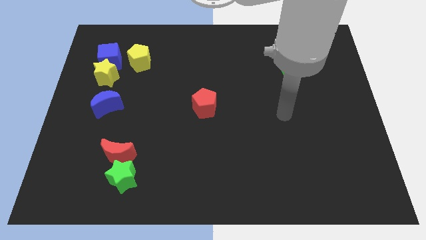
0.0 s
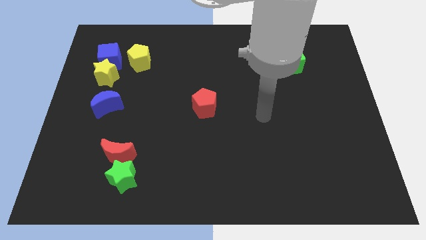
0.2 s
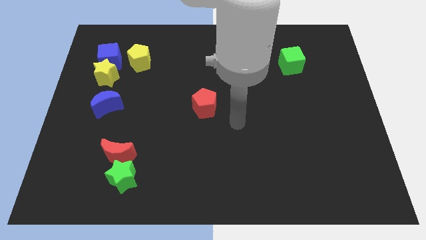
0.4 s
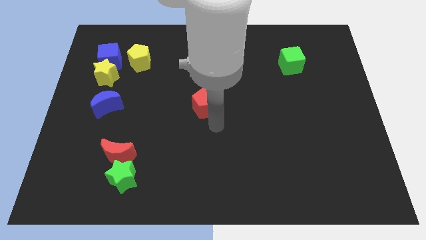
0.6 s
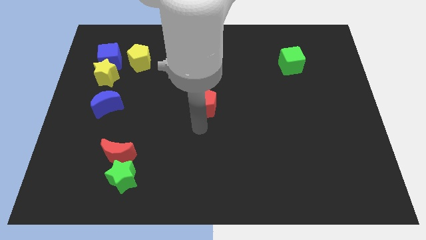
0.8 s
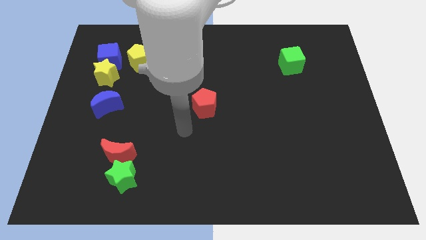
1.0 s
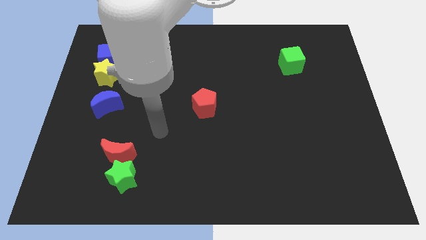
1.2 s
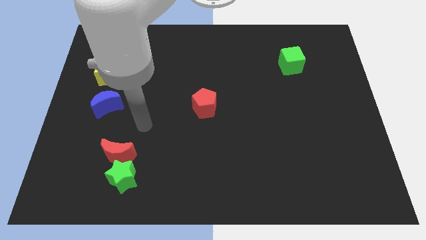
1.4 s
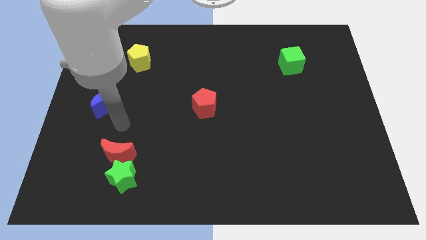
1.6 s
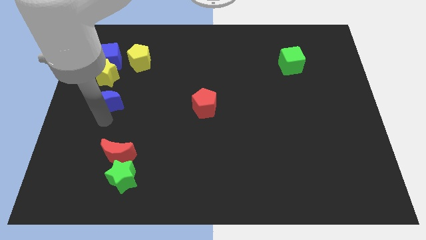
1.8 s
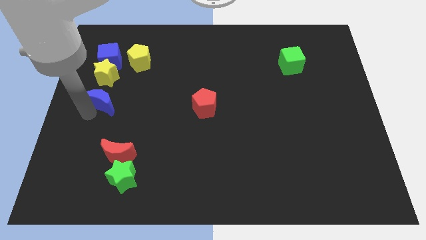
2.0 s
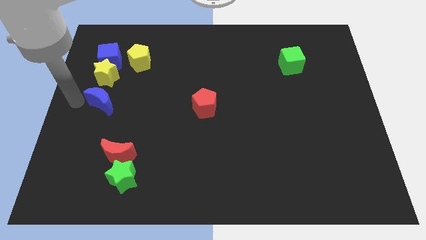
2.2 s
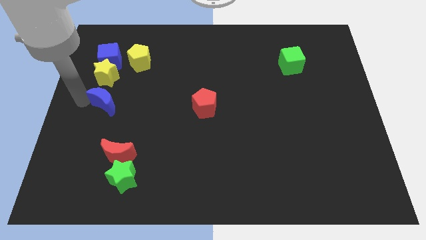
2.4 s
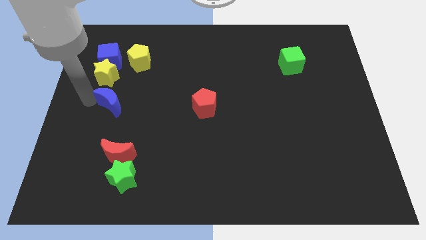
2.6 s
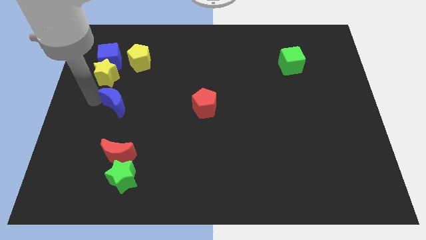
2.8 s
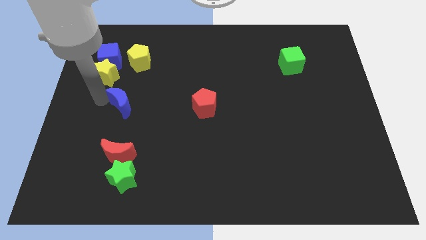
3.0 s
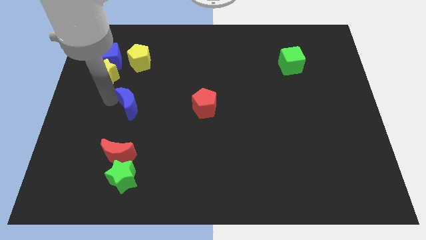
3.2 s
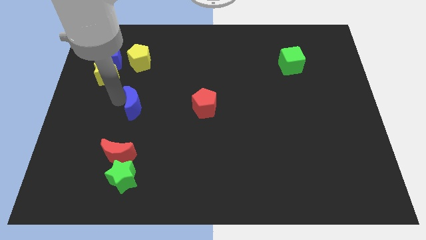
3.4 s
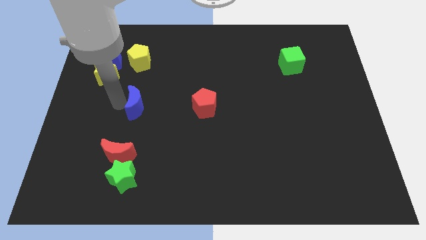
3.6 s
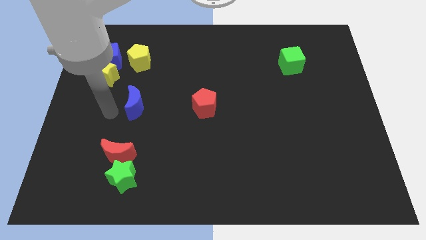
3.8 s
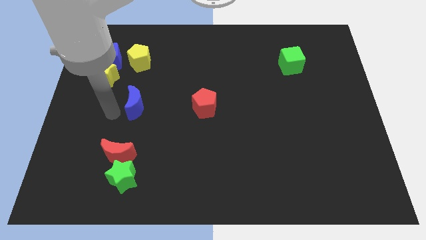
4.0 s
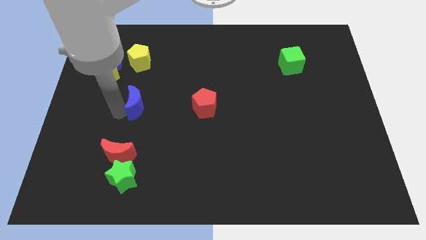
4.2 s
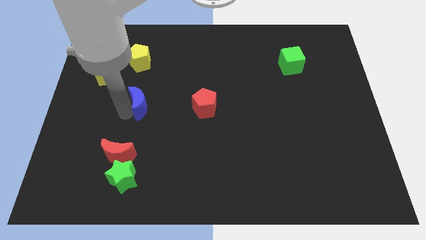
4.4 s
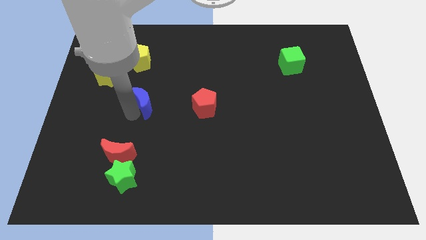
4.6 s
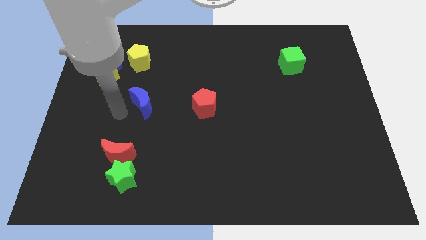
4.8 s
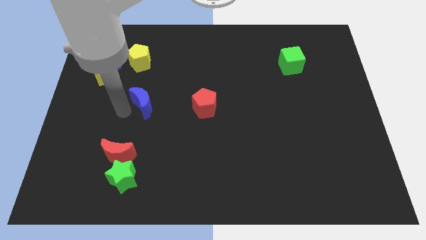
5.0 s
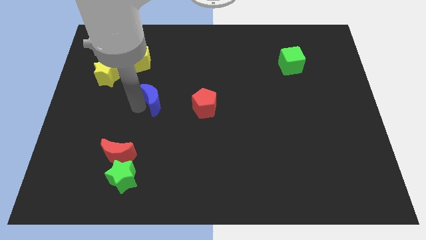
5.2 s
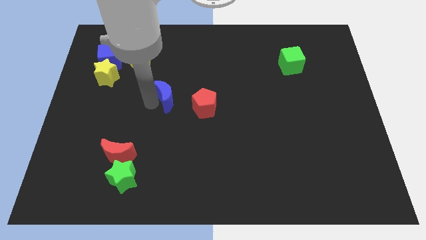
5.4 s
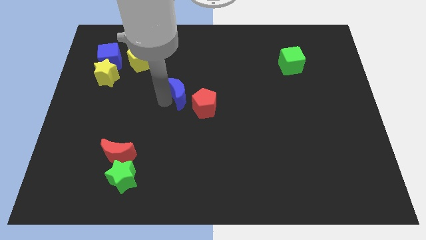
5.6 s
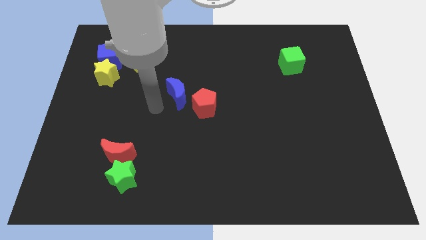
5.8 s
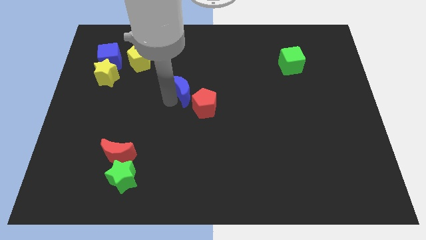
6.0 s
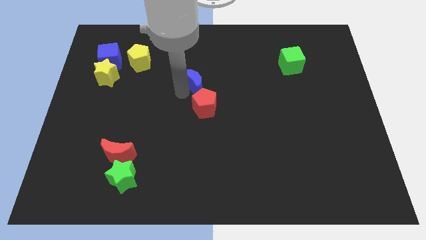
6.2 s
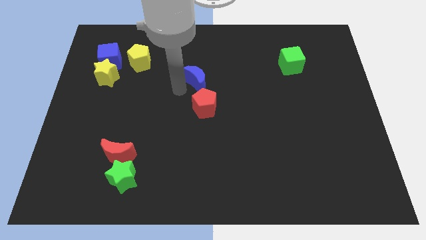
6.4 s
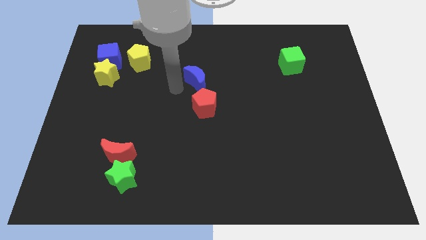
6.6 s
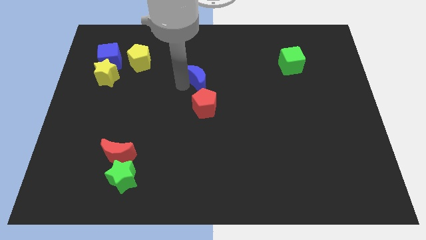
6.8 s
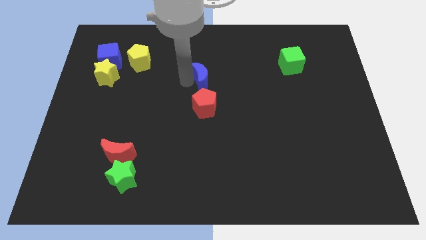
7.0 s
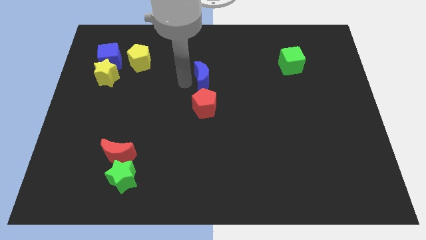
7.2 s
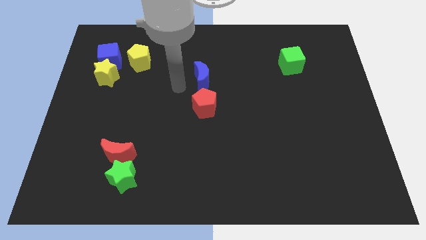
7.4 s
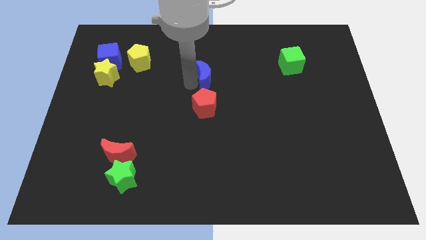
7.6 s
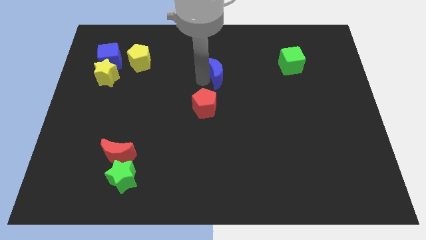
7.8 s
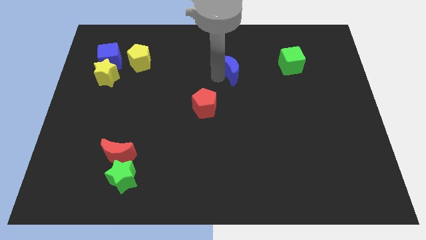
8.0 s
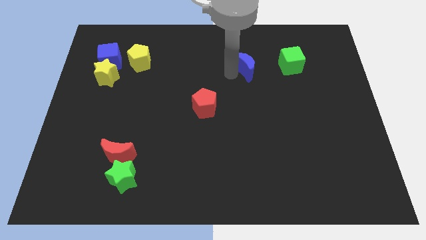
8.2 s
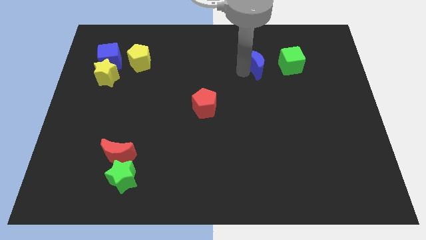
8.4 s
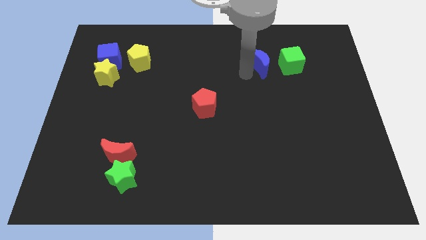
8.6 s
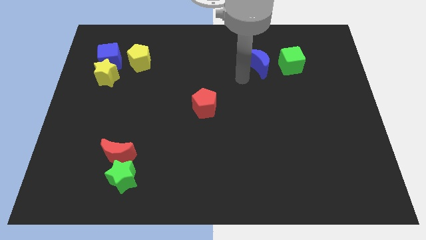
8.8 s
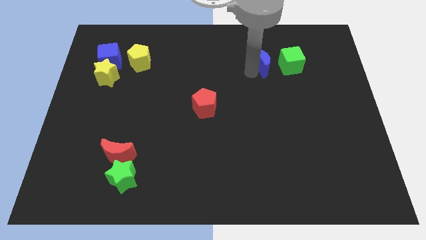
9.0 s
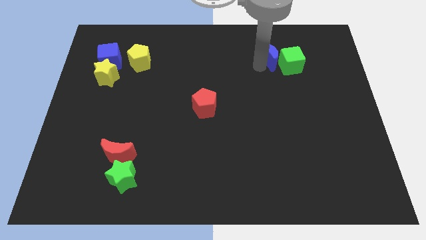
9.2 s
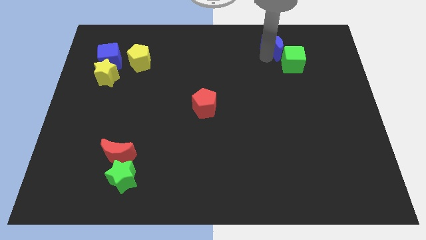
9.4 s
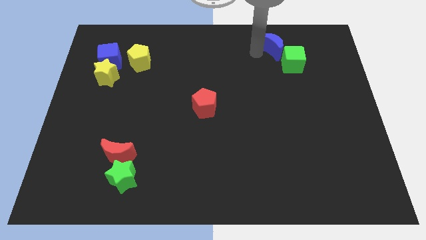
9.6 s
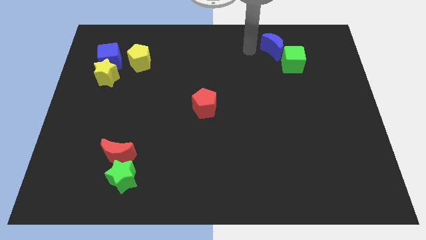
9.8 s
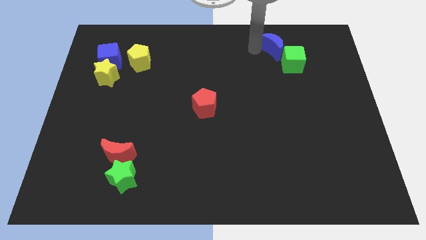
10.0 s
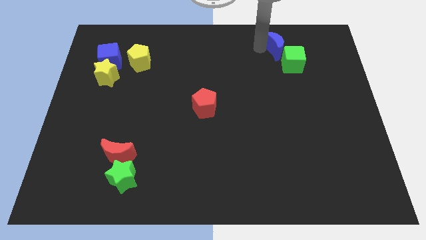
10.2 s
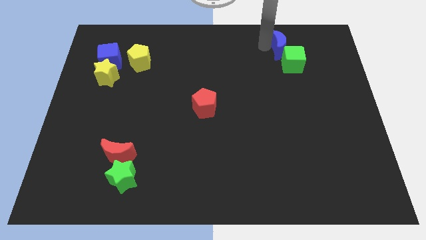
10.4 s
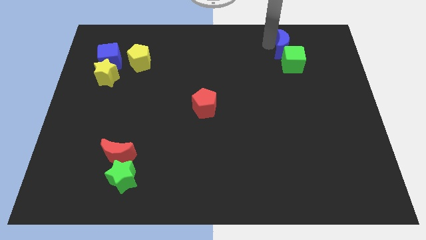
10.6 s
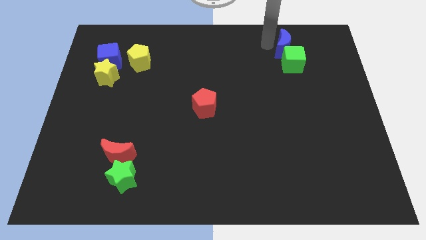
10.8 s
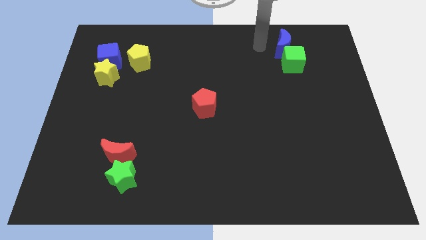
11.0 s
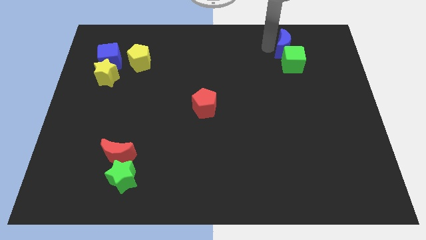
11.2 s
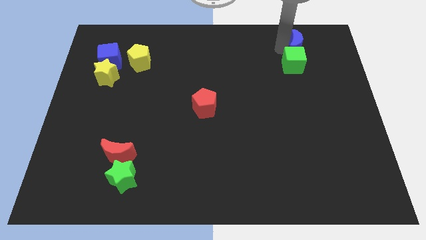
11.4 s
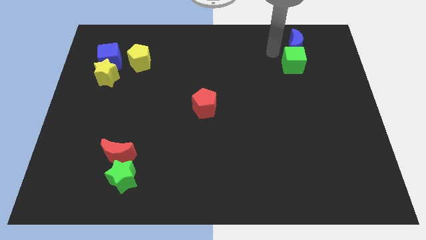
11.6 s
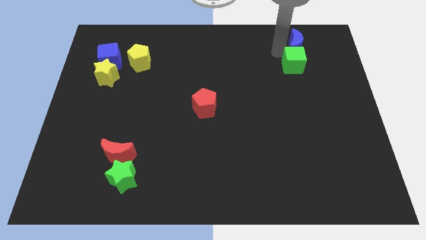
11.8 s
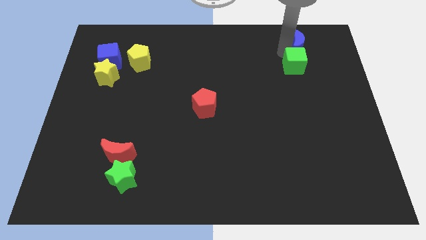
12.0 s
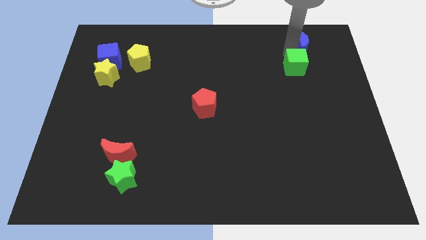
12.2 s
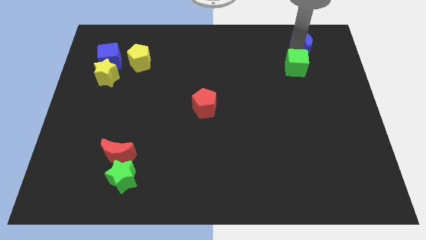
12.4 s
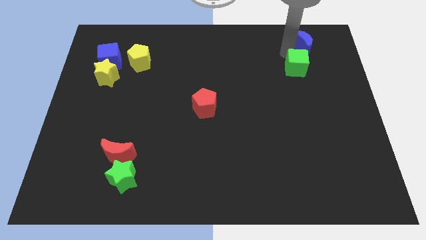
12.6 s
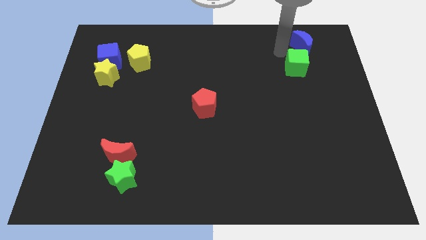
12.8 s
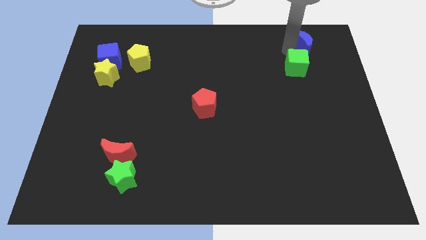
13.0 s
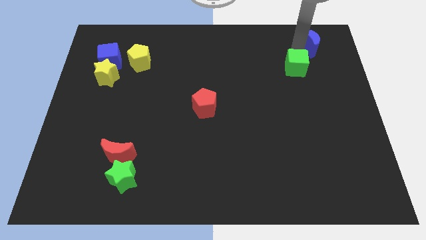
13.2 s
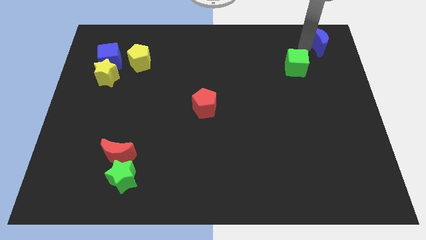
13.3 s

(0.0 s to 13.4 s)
push the blue moon to the upper right corner
